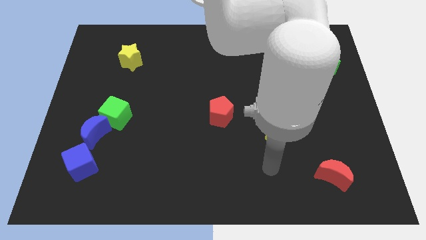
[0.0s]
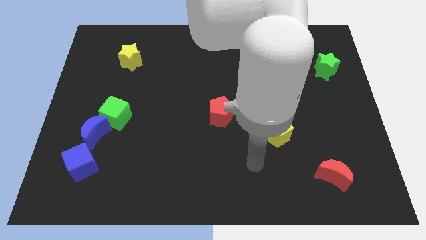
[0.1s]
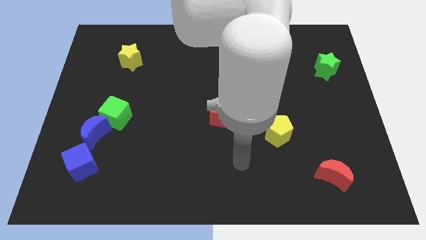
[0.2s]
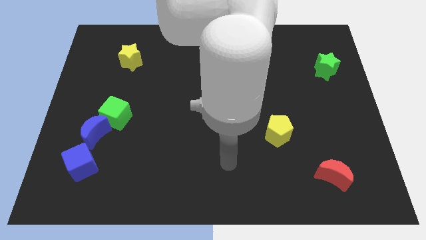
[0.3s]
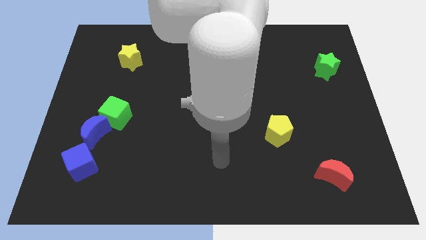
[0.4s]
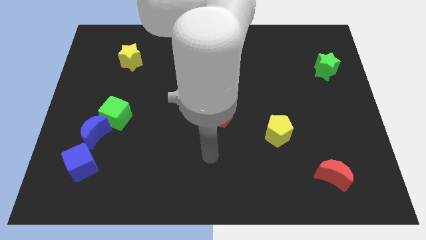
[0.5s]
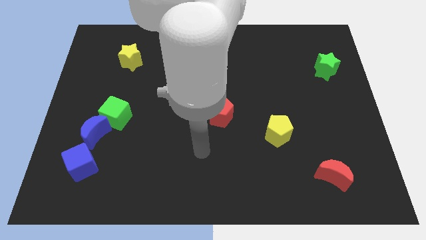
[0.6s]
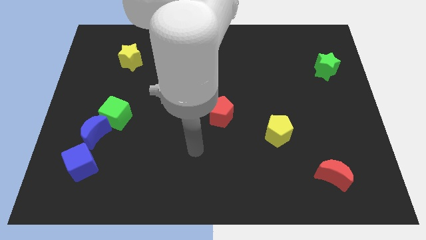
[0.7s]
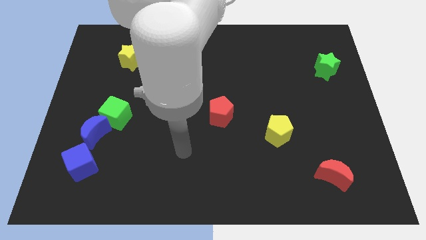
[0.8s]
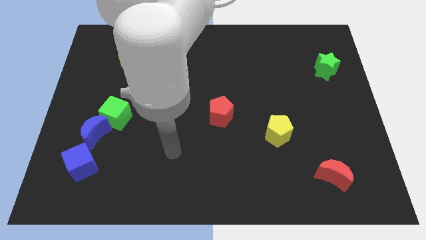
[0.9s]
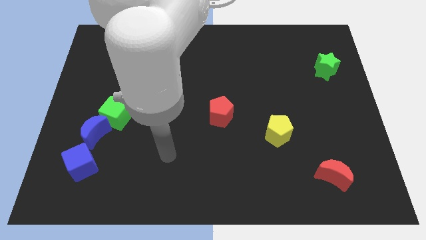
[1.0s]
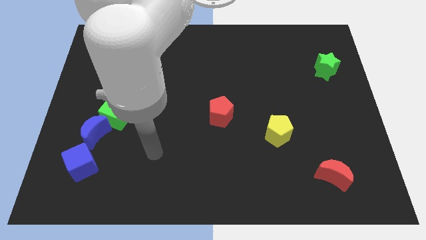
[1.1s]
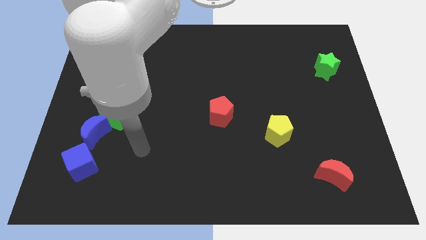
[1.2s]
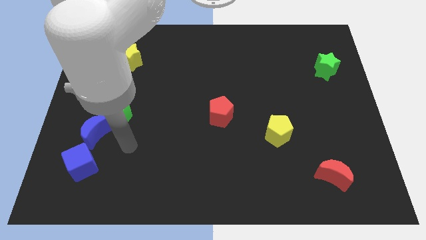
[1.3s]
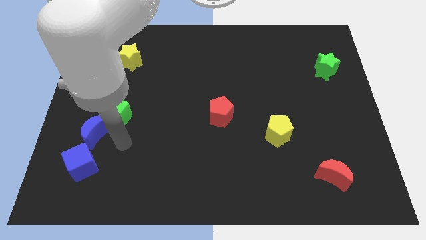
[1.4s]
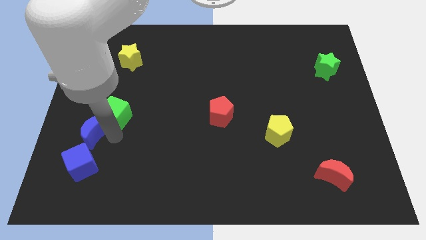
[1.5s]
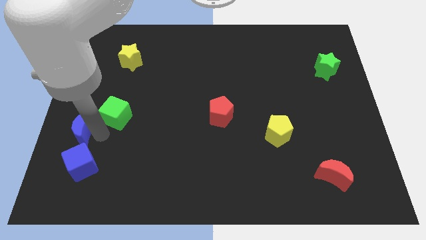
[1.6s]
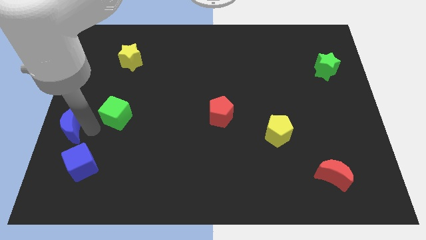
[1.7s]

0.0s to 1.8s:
separate the green cube from the blue moon

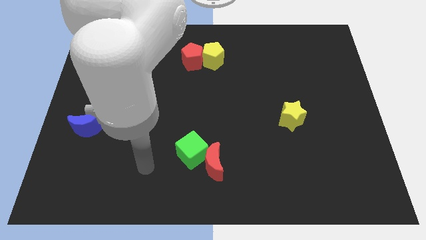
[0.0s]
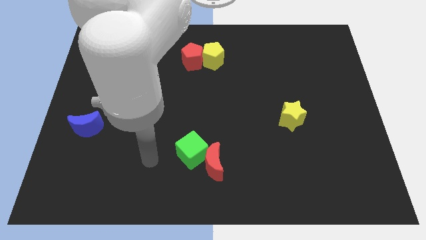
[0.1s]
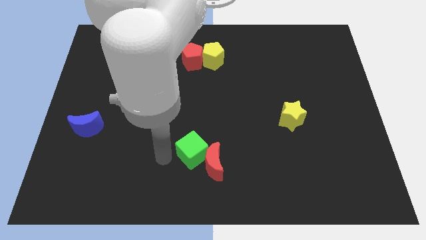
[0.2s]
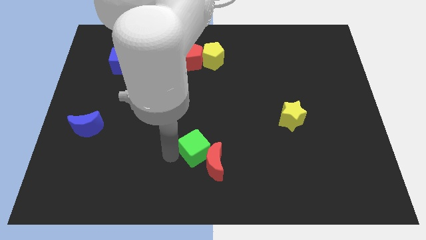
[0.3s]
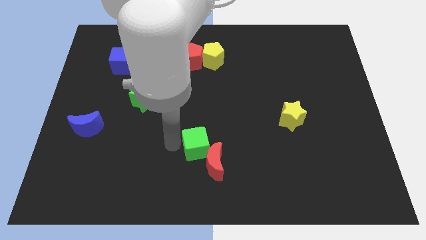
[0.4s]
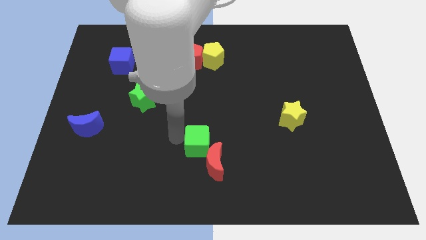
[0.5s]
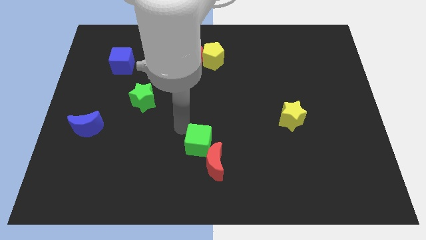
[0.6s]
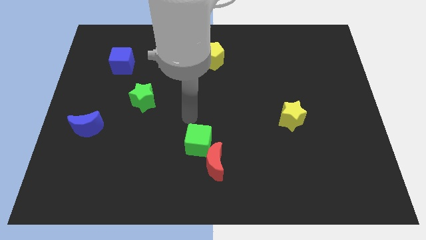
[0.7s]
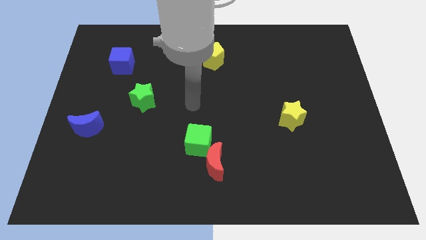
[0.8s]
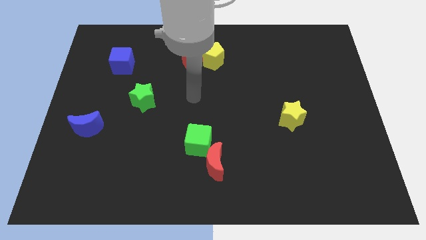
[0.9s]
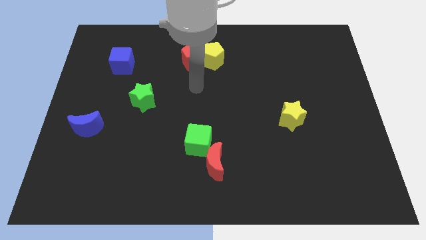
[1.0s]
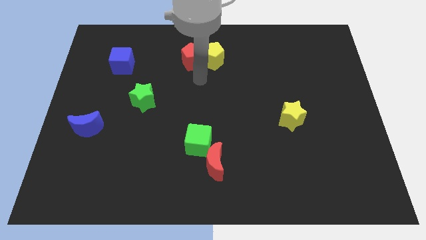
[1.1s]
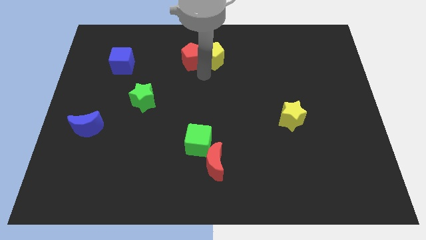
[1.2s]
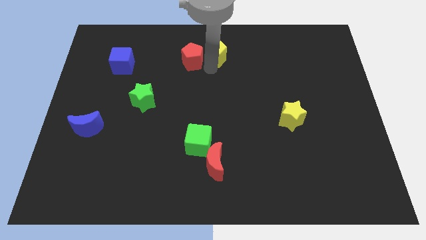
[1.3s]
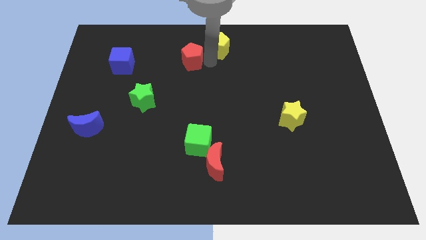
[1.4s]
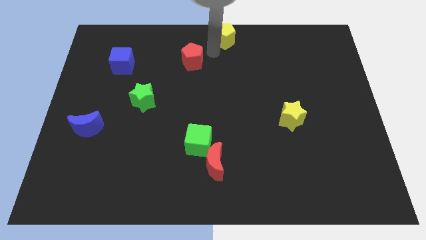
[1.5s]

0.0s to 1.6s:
separate the red pentagon from the yellow pentagon

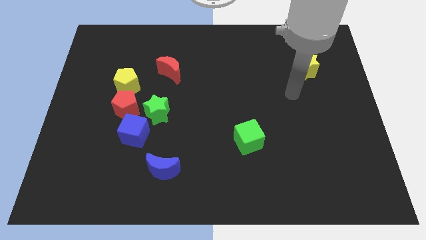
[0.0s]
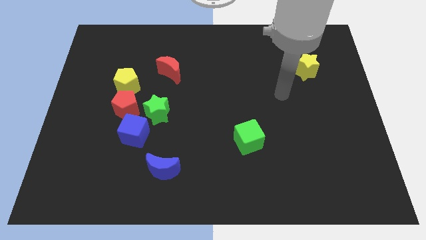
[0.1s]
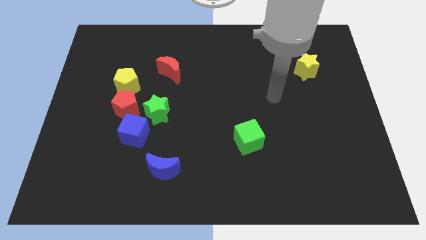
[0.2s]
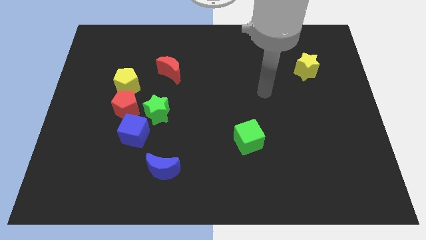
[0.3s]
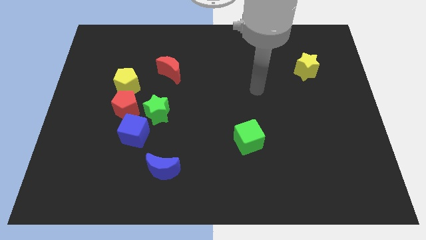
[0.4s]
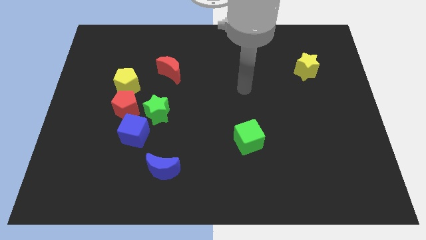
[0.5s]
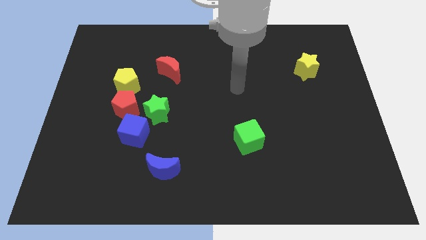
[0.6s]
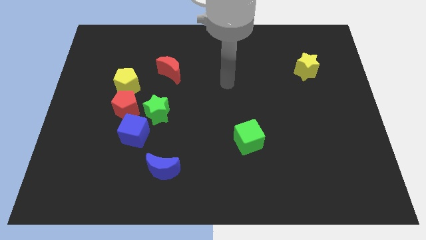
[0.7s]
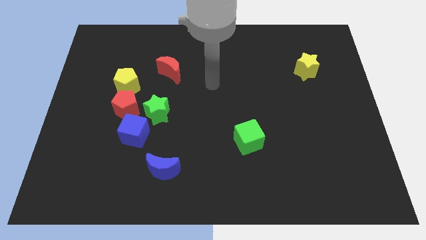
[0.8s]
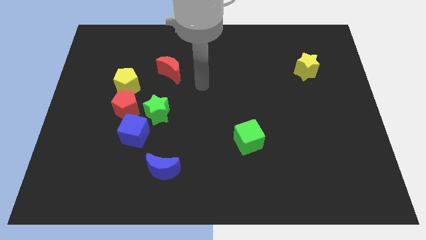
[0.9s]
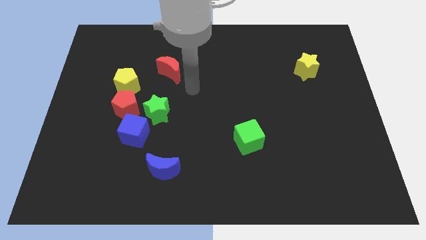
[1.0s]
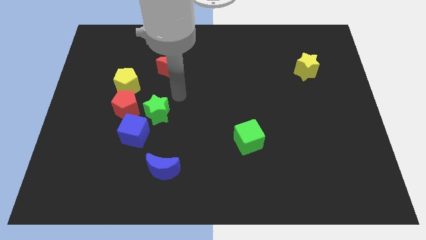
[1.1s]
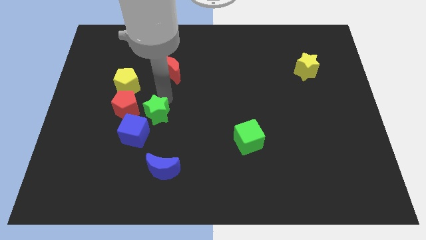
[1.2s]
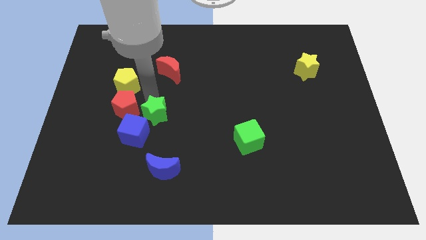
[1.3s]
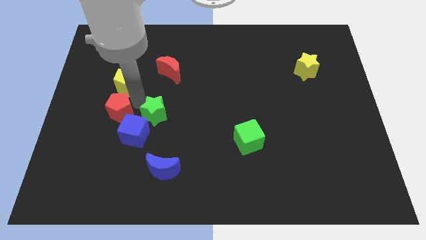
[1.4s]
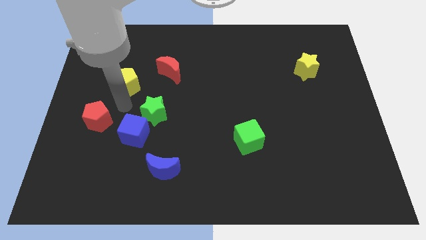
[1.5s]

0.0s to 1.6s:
move the yellow pentagon away from the red pentagon

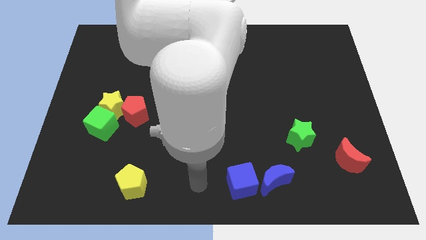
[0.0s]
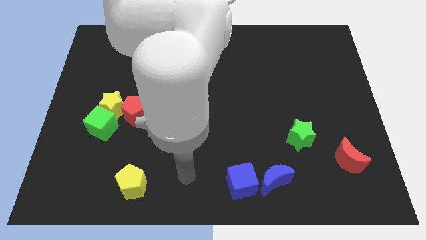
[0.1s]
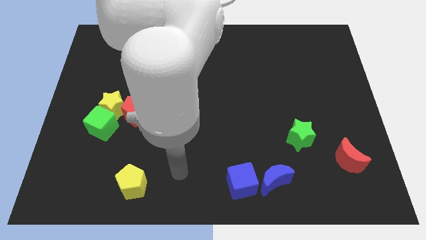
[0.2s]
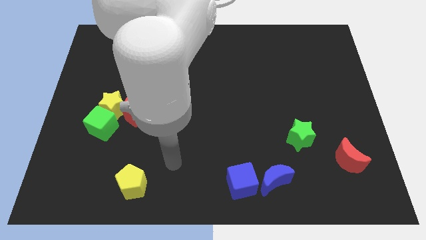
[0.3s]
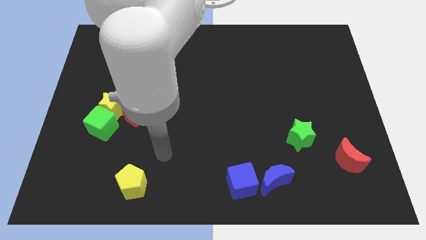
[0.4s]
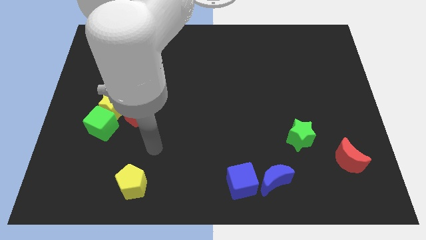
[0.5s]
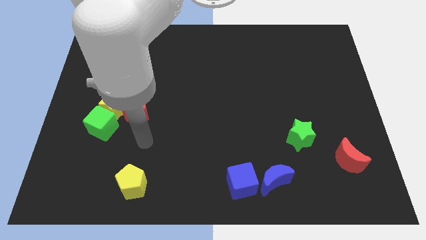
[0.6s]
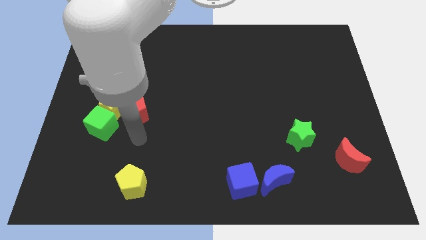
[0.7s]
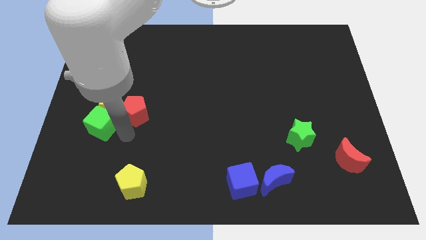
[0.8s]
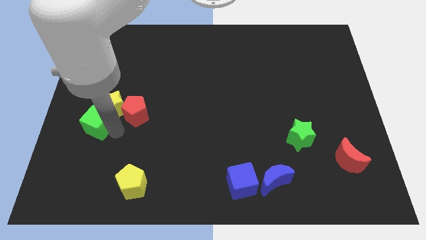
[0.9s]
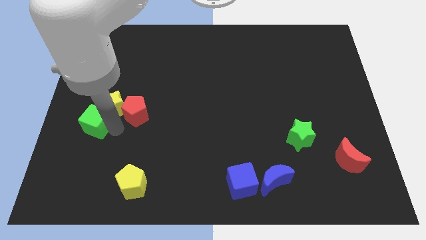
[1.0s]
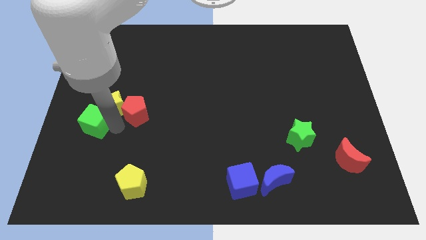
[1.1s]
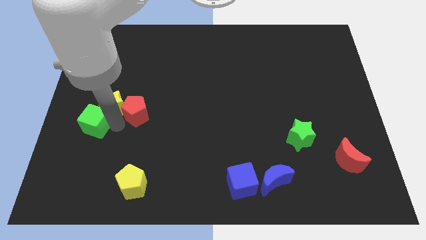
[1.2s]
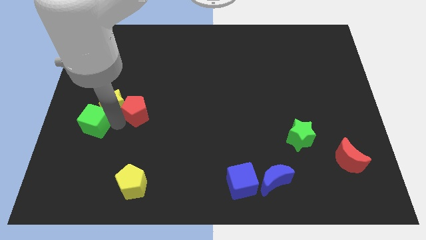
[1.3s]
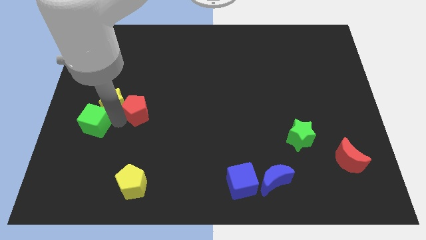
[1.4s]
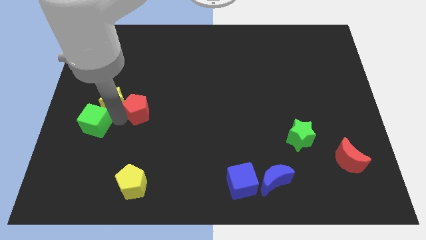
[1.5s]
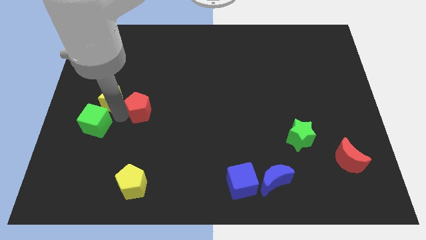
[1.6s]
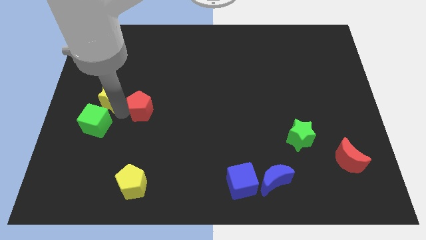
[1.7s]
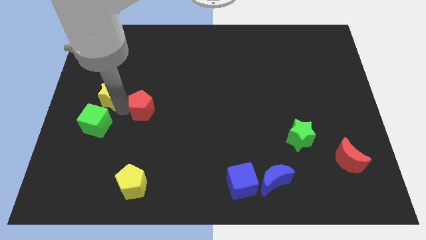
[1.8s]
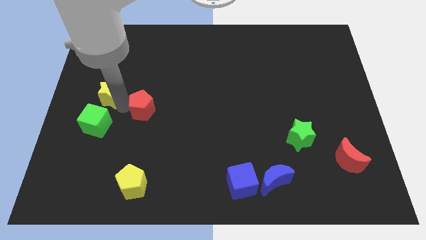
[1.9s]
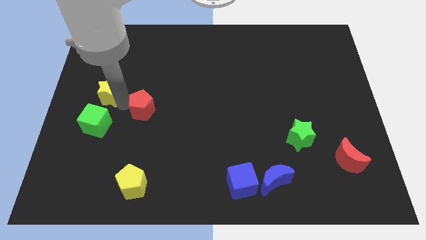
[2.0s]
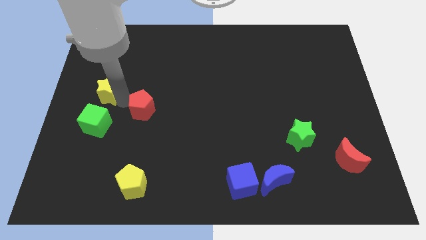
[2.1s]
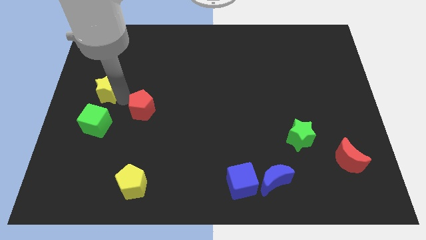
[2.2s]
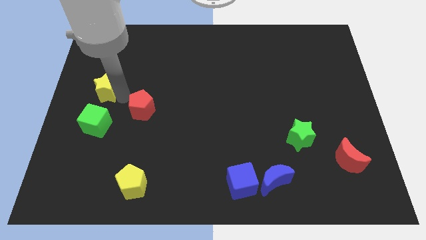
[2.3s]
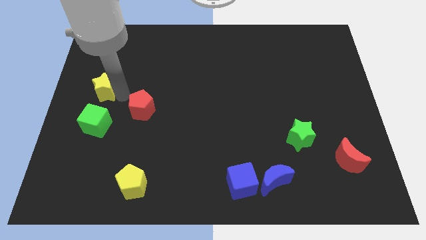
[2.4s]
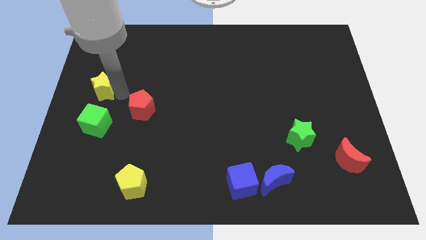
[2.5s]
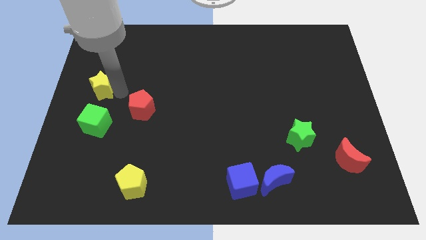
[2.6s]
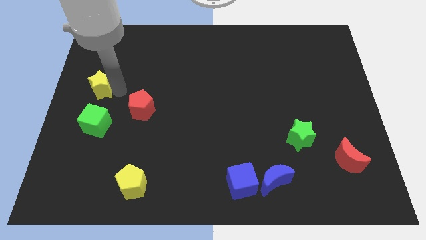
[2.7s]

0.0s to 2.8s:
separate the yellow star from the green cube and red pentagon

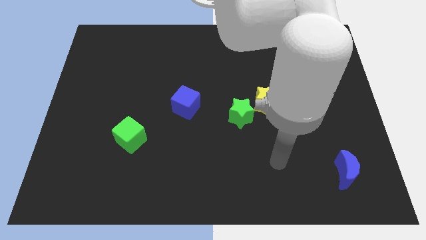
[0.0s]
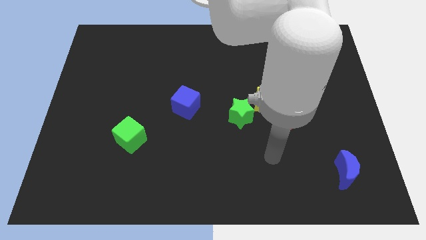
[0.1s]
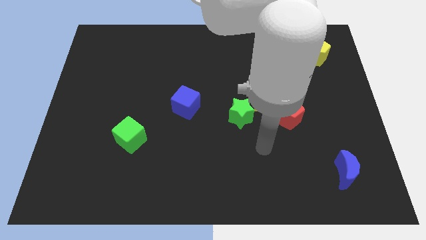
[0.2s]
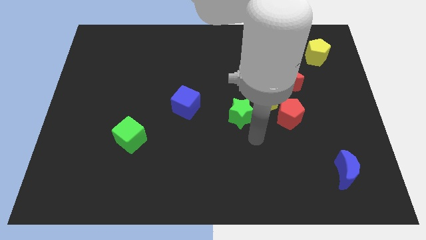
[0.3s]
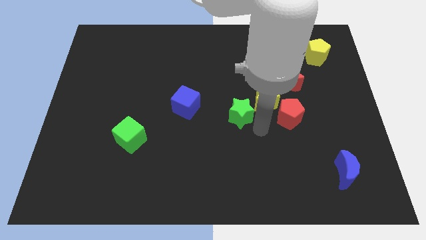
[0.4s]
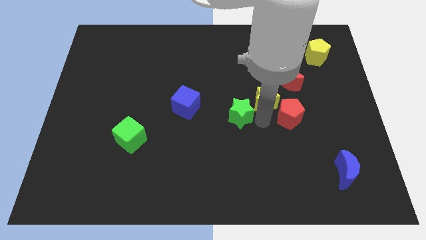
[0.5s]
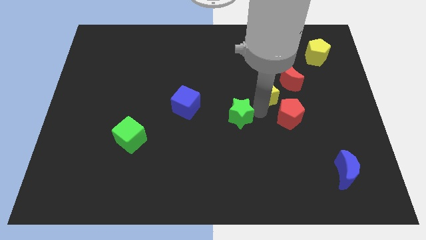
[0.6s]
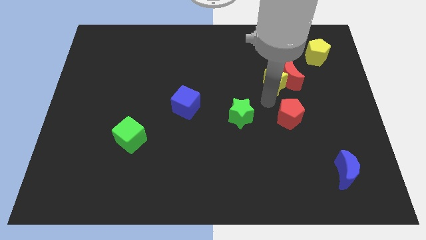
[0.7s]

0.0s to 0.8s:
move the red pentagon away from the yellow star

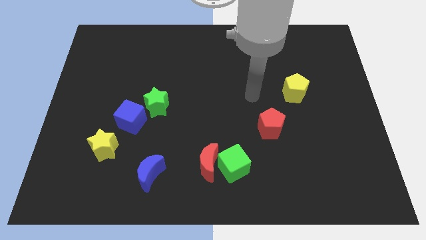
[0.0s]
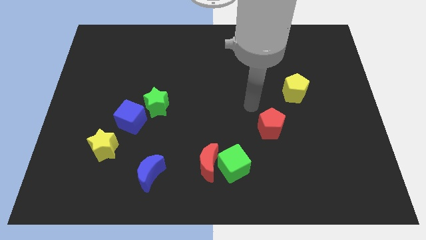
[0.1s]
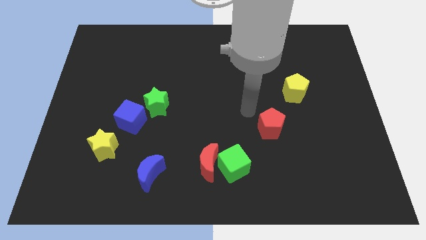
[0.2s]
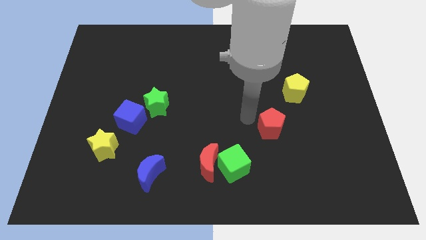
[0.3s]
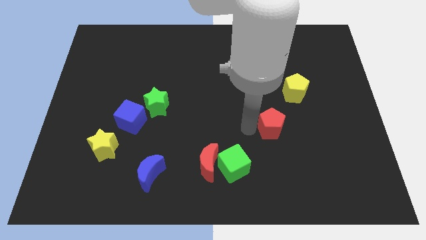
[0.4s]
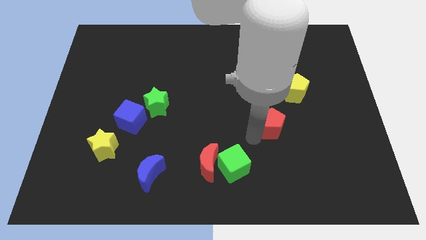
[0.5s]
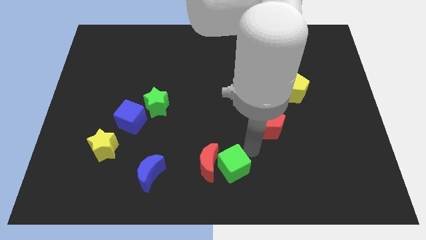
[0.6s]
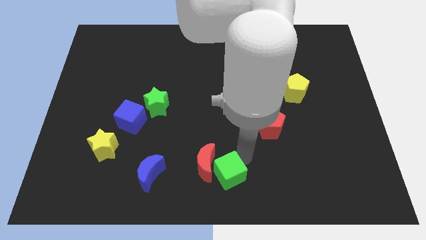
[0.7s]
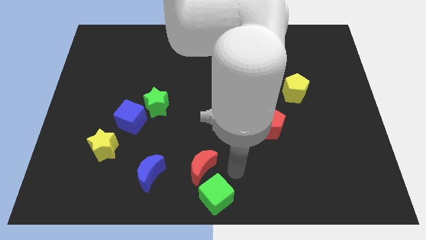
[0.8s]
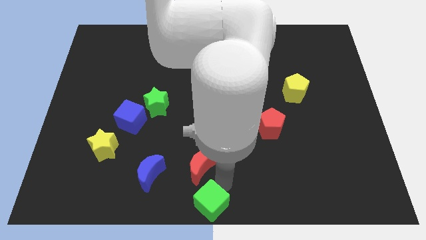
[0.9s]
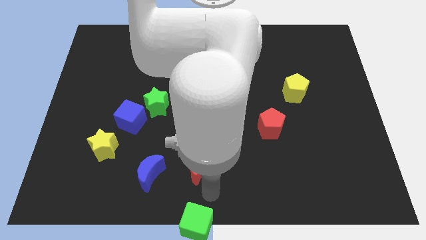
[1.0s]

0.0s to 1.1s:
pull the red moon apart from the green cube
